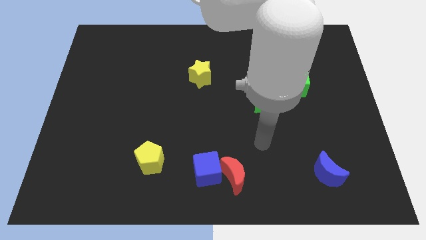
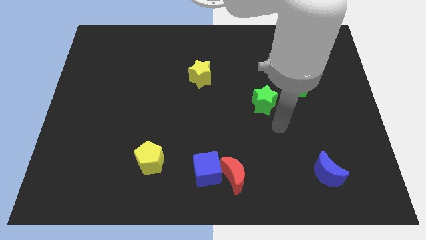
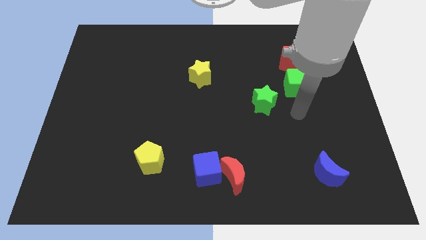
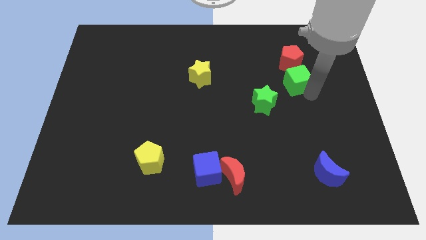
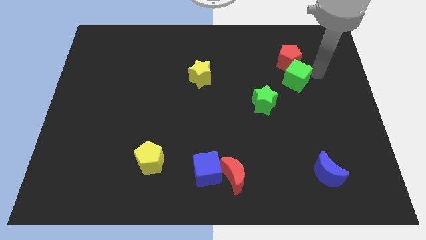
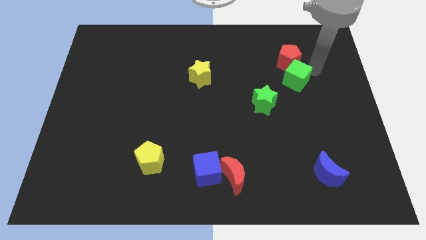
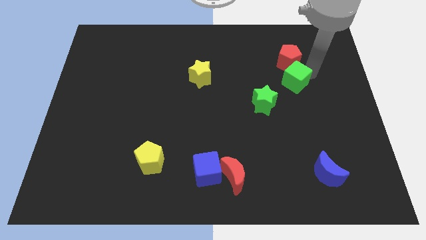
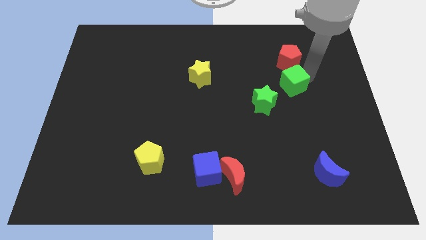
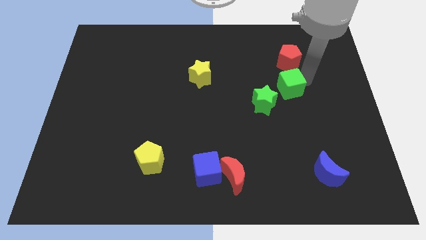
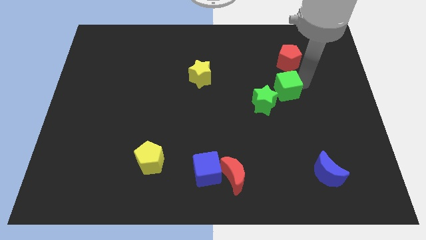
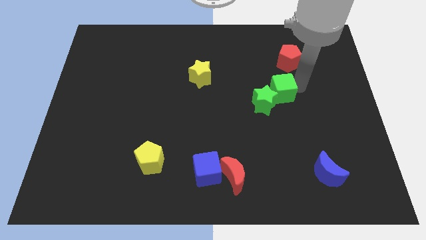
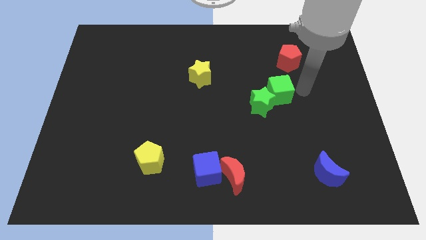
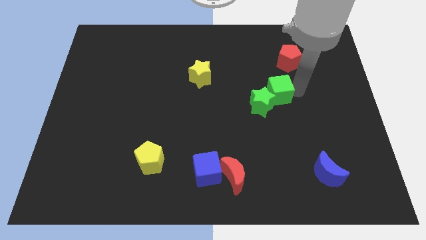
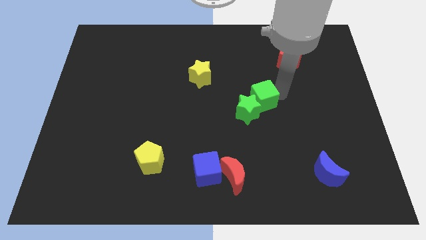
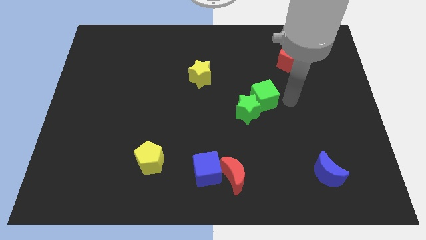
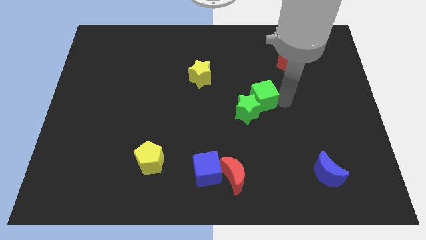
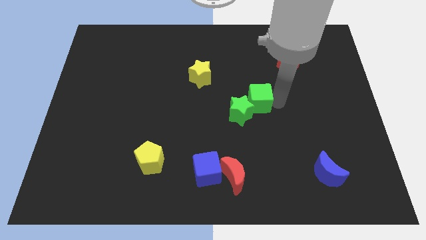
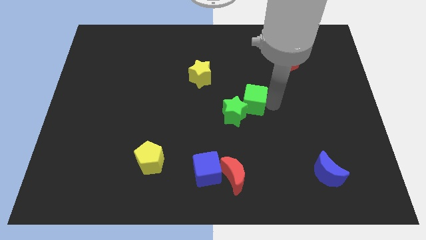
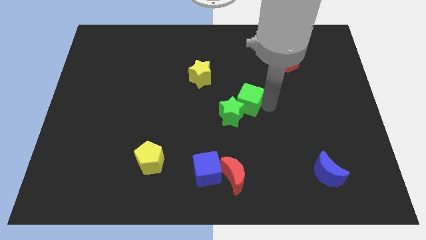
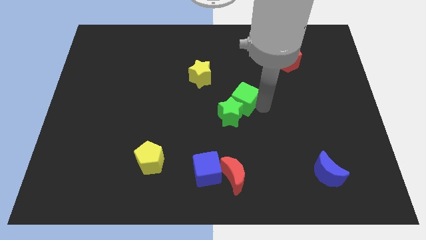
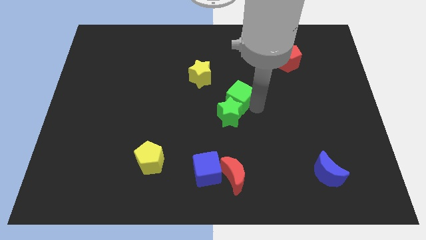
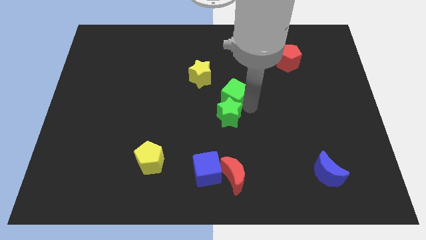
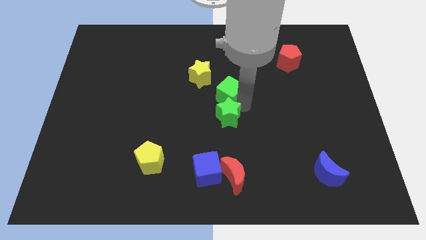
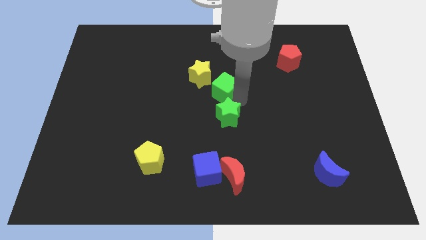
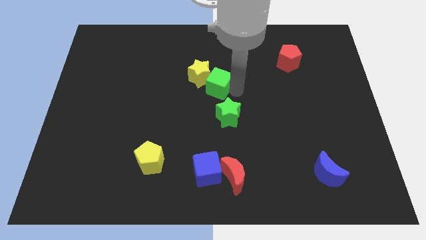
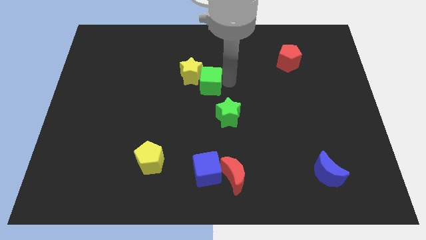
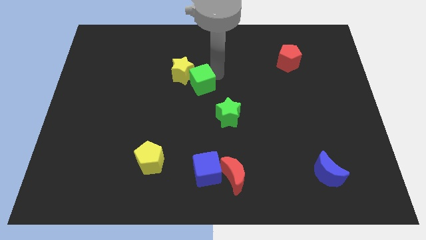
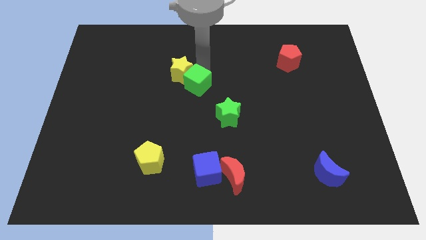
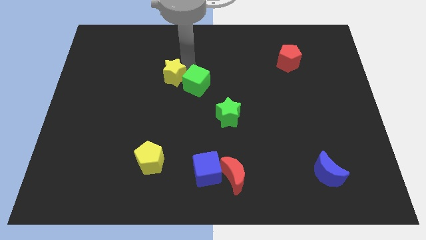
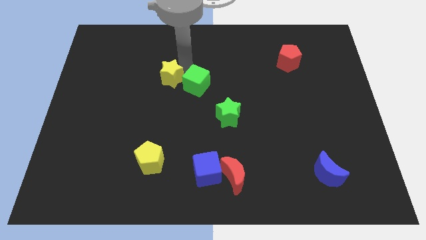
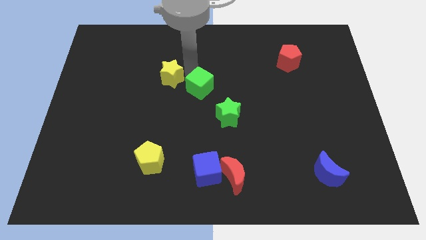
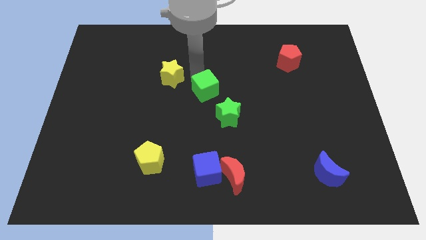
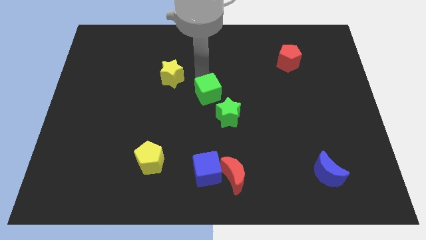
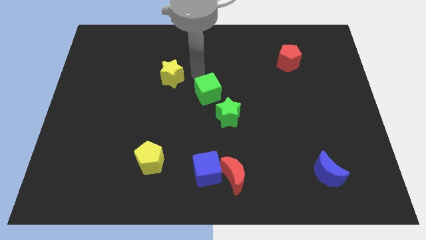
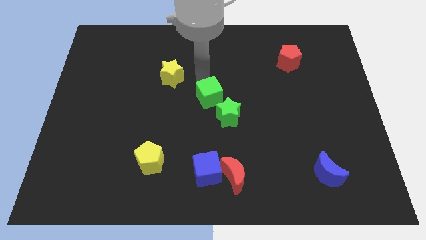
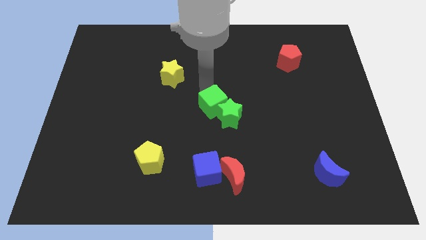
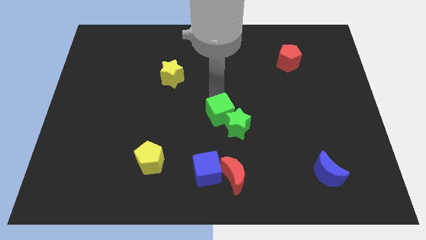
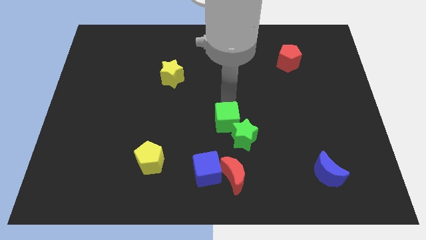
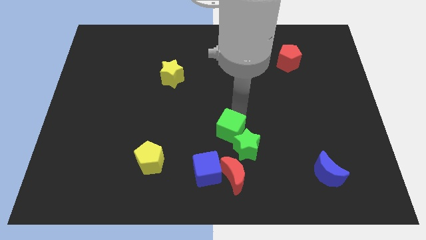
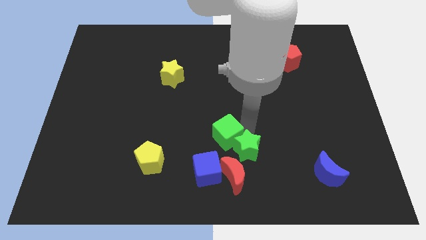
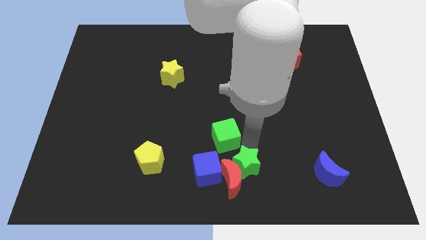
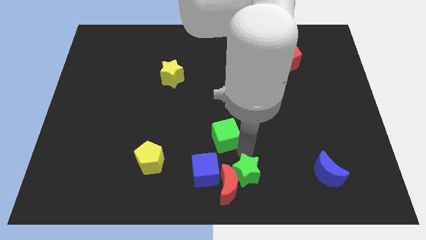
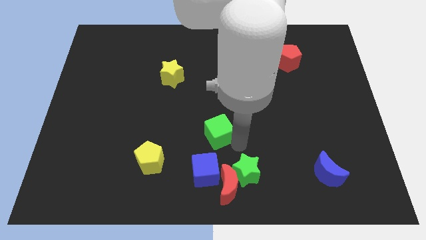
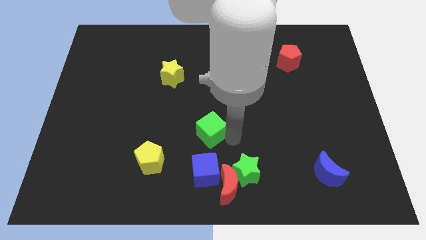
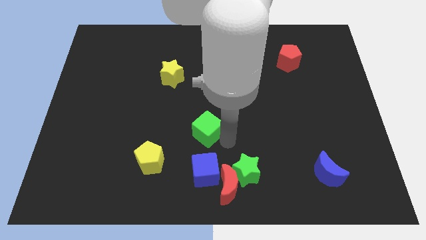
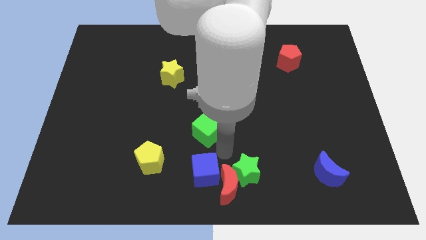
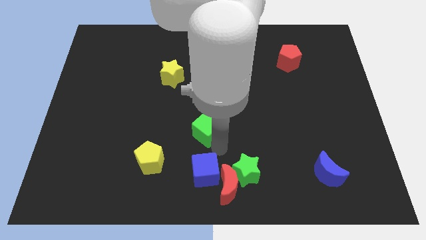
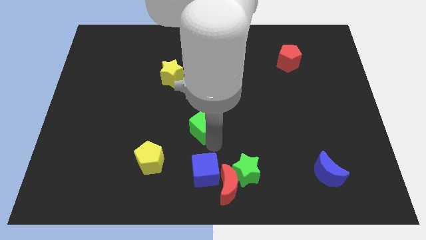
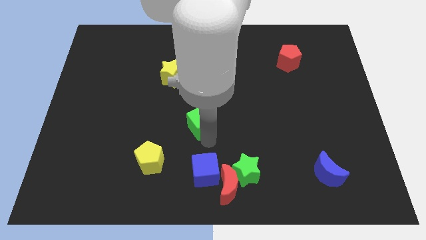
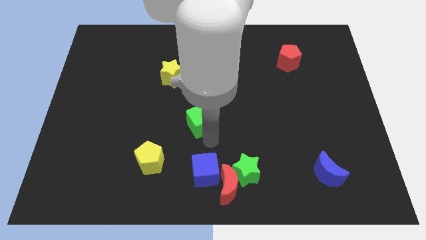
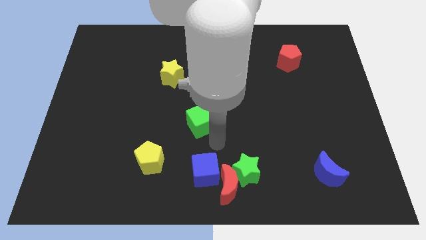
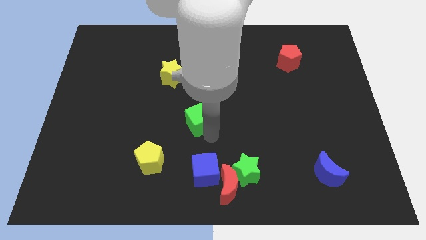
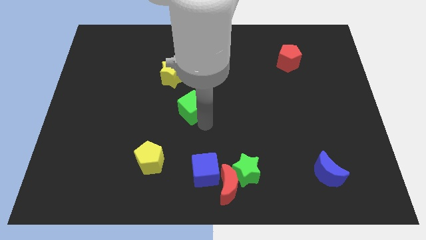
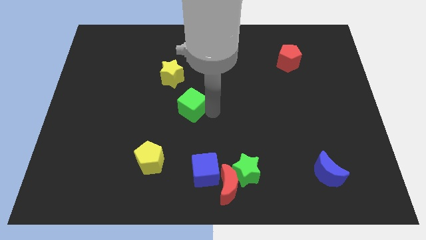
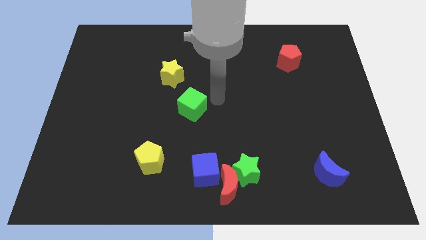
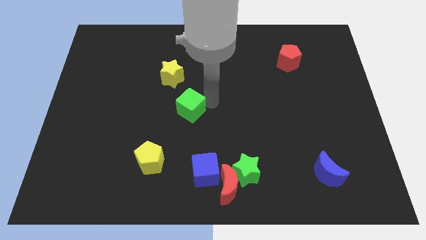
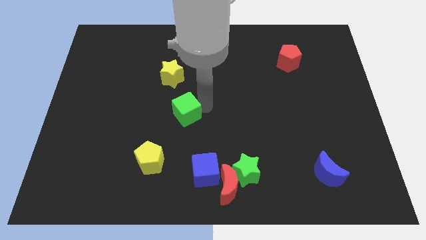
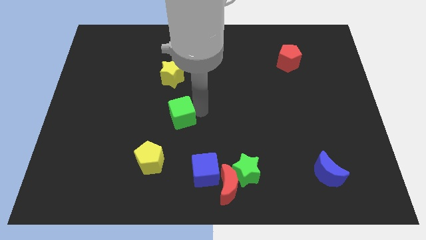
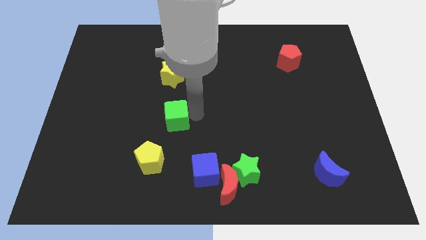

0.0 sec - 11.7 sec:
put the green cube to the top of the yellow pentagon

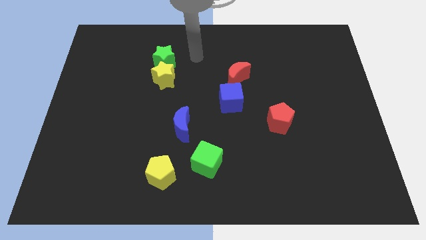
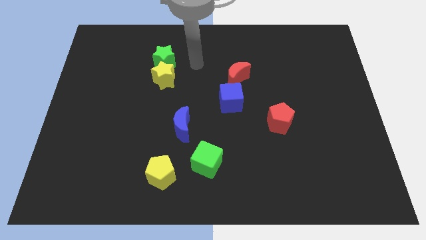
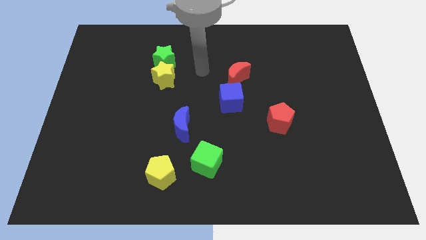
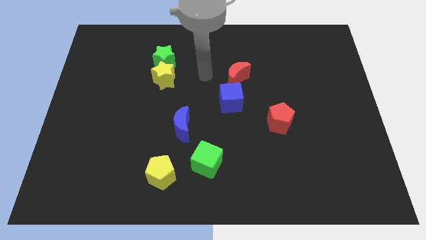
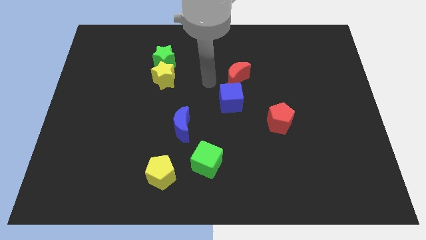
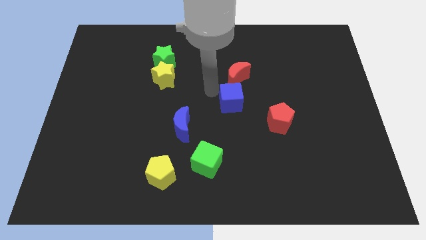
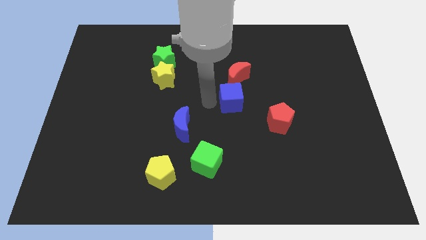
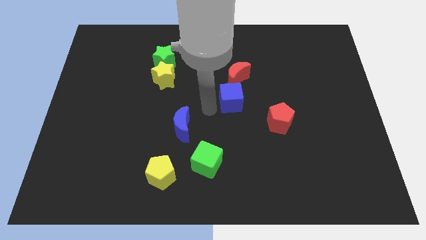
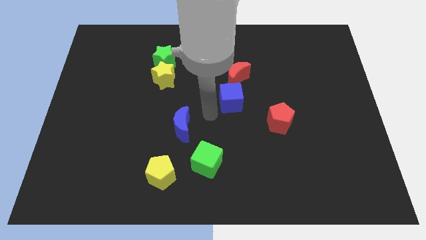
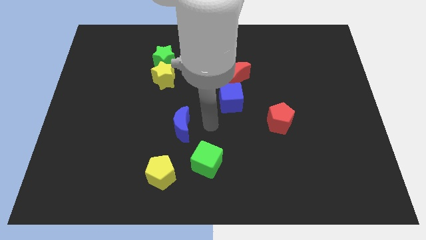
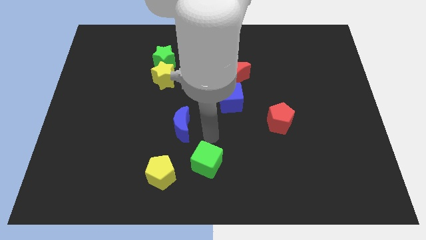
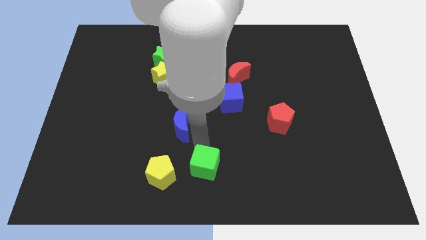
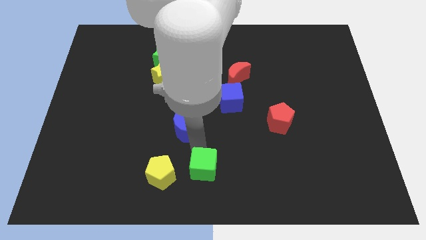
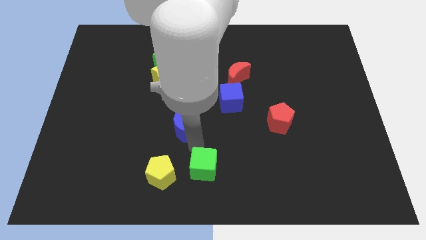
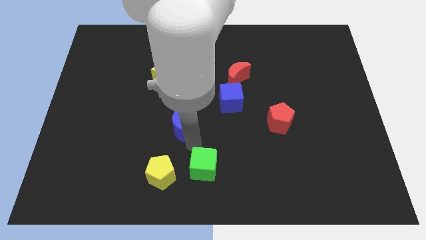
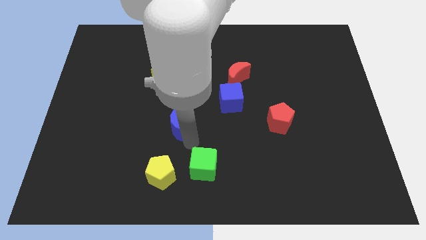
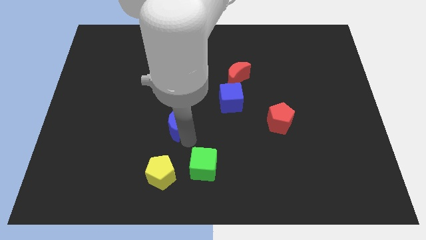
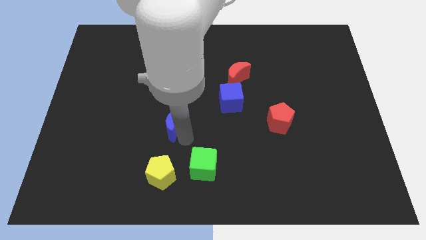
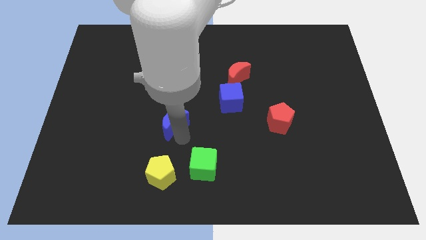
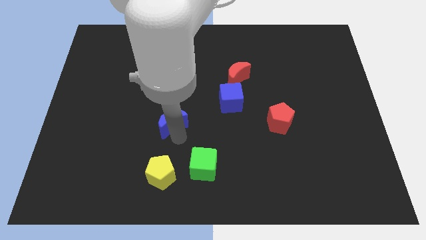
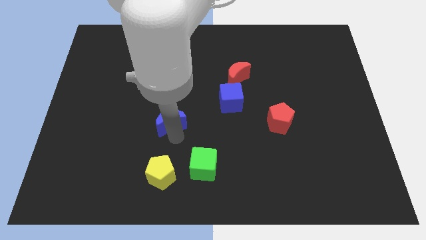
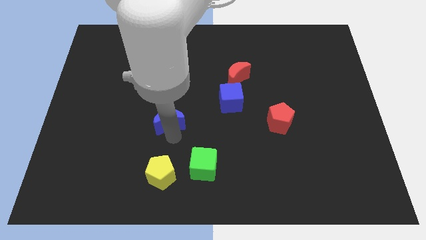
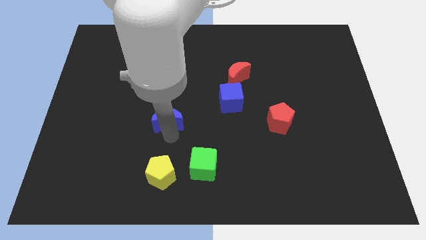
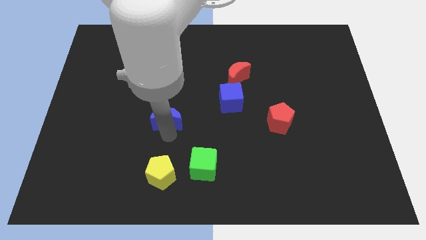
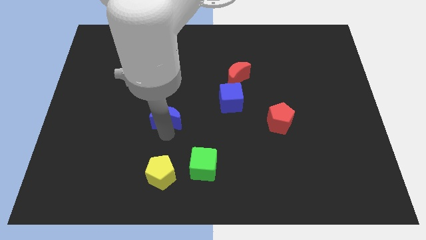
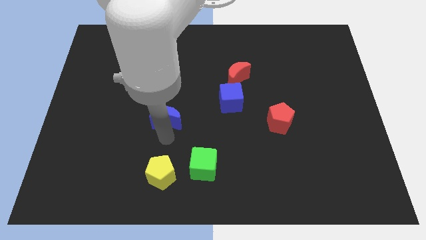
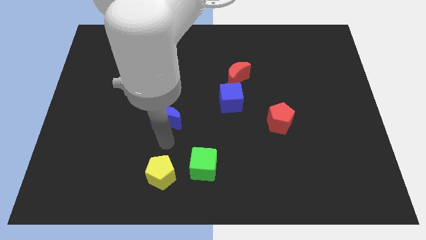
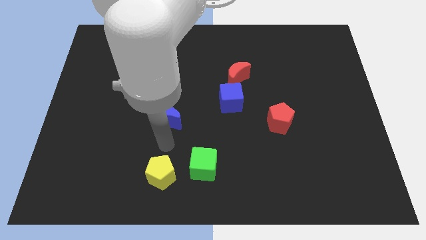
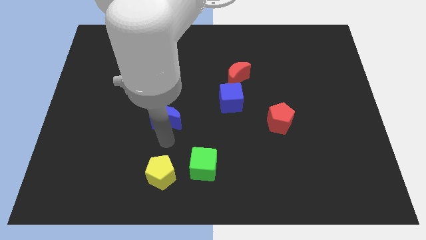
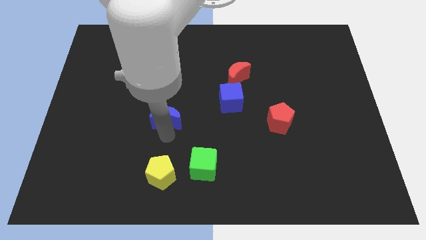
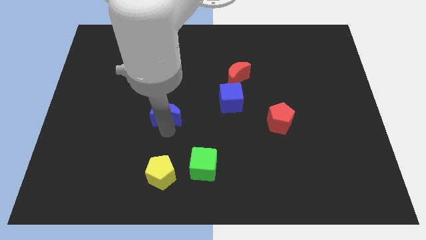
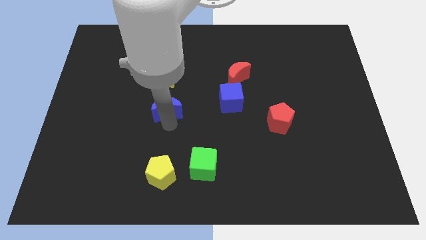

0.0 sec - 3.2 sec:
put the blue moon to the bottom side of the green star
